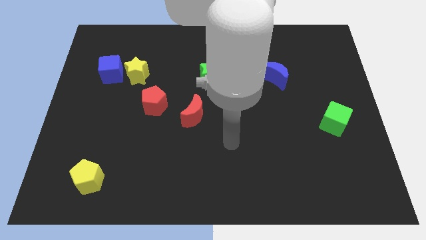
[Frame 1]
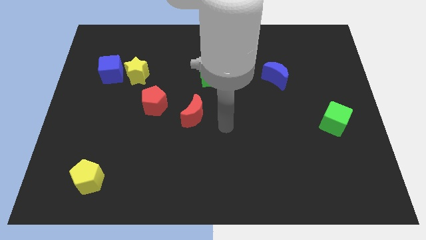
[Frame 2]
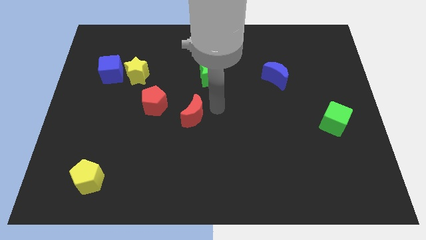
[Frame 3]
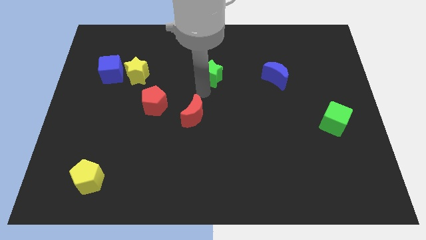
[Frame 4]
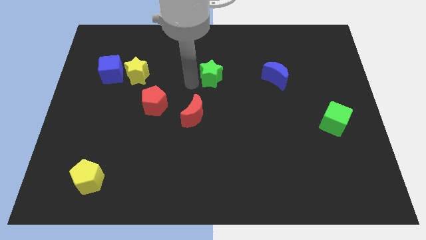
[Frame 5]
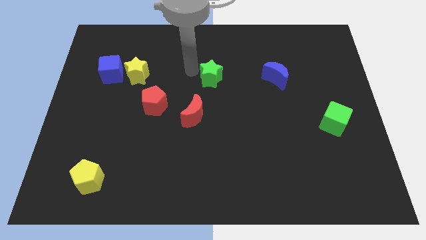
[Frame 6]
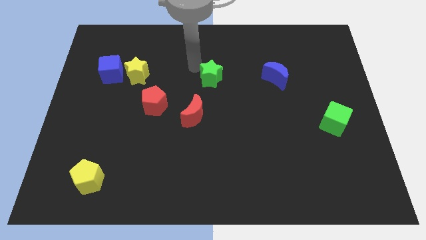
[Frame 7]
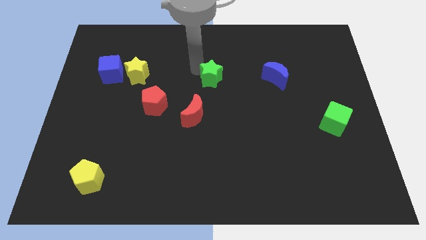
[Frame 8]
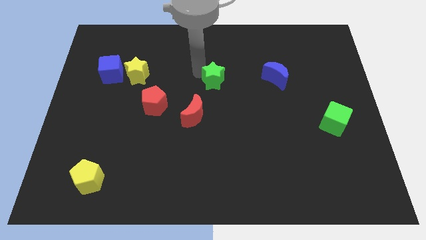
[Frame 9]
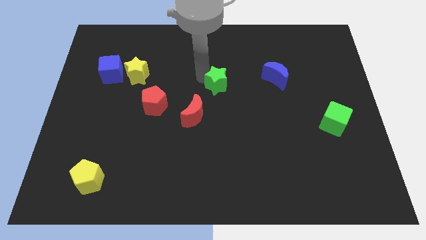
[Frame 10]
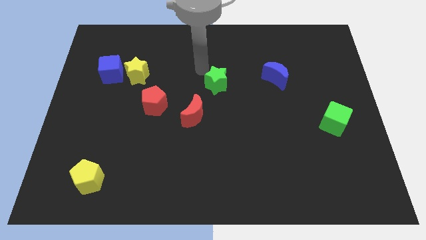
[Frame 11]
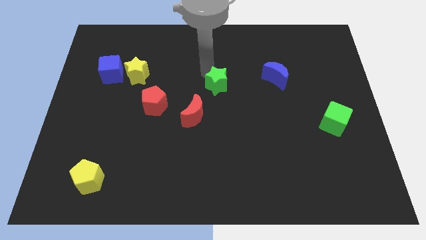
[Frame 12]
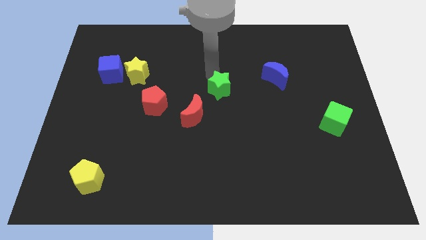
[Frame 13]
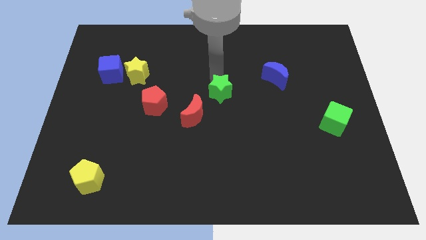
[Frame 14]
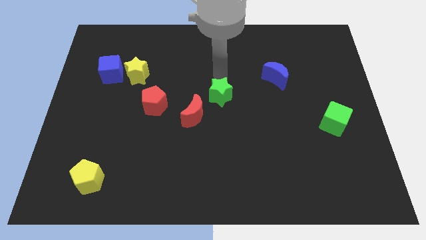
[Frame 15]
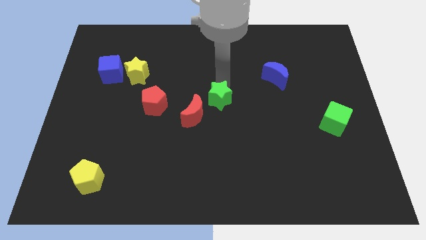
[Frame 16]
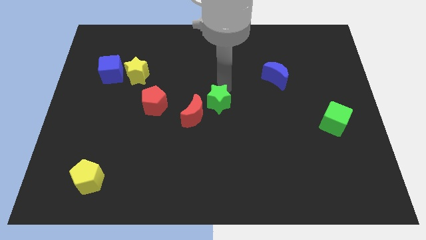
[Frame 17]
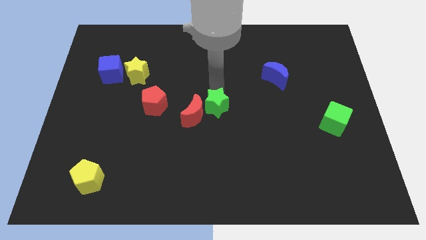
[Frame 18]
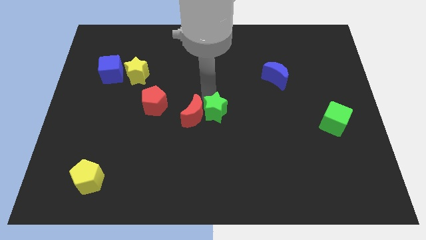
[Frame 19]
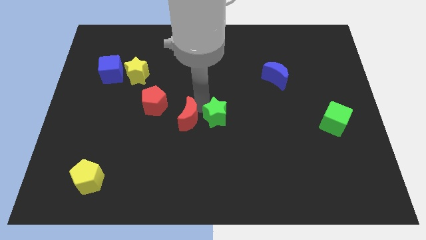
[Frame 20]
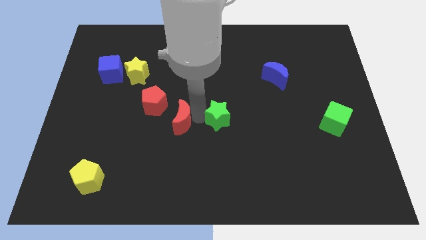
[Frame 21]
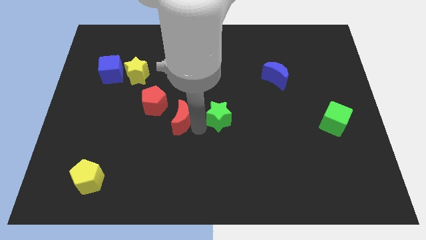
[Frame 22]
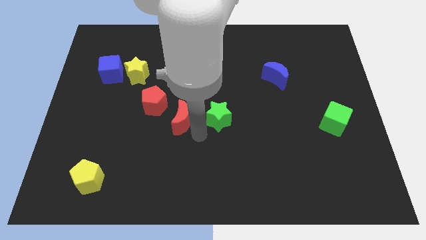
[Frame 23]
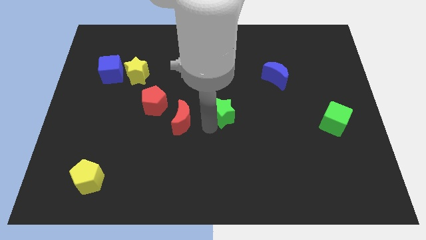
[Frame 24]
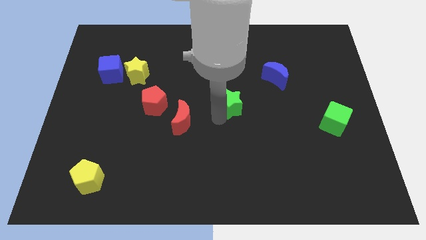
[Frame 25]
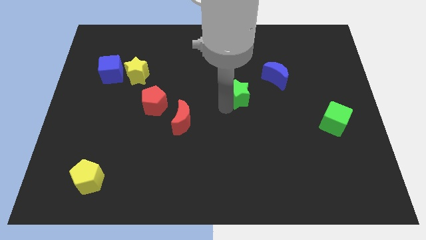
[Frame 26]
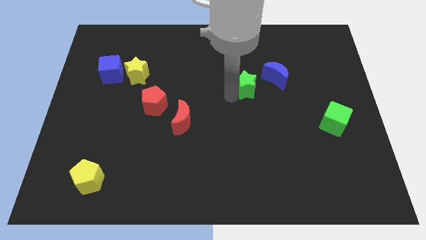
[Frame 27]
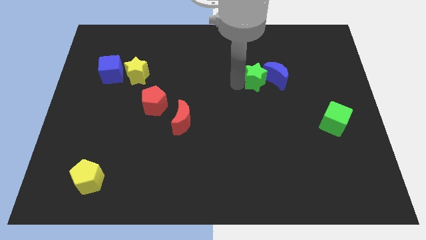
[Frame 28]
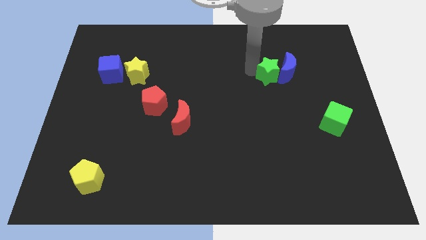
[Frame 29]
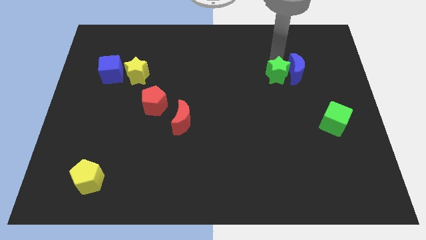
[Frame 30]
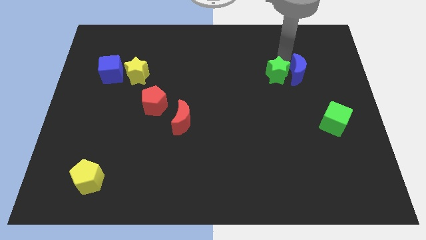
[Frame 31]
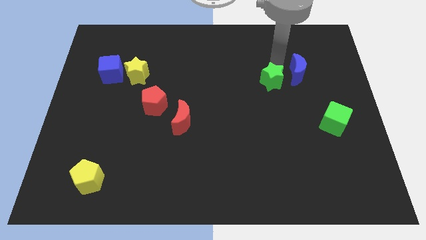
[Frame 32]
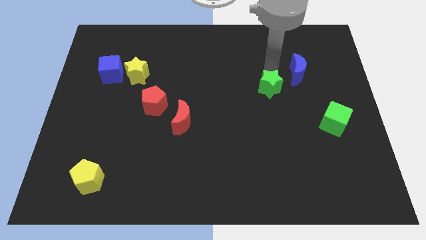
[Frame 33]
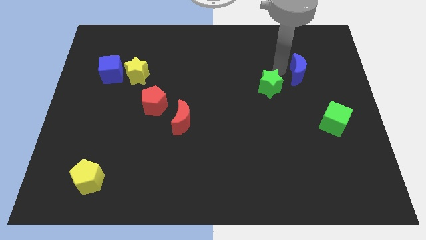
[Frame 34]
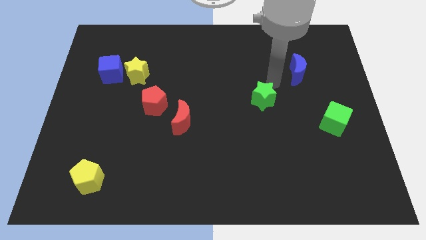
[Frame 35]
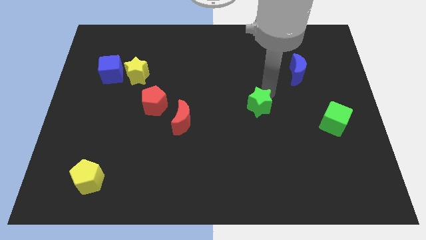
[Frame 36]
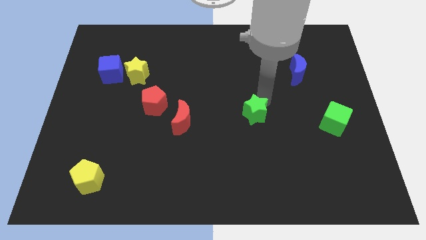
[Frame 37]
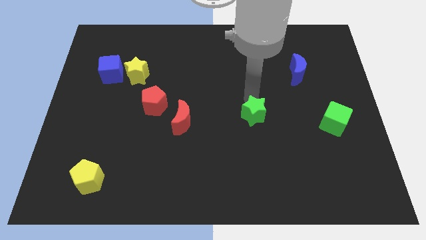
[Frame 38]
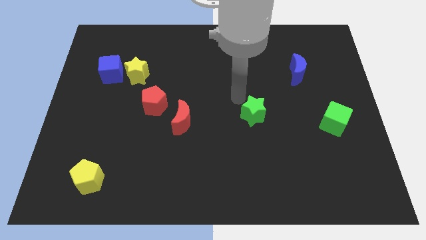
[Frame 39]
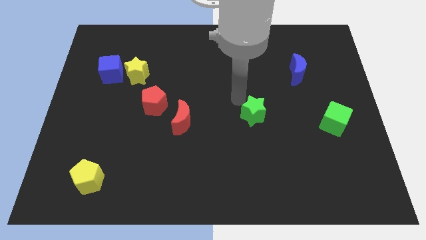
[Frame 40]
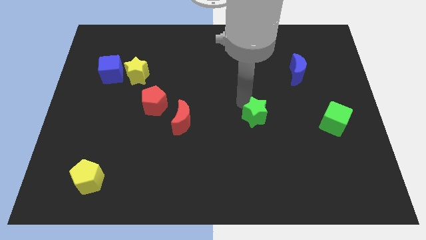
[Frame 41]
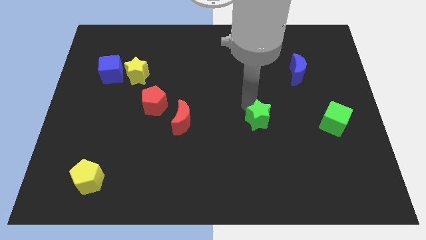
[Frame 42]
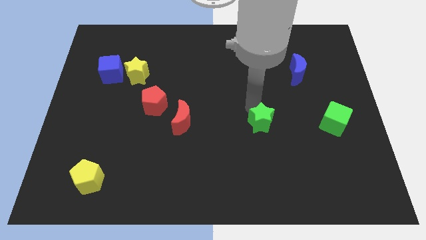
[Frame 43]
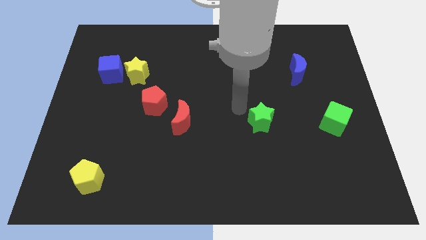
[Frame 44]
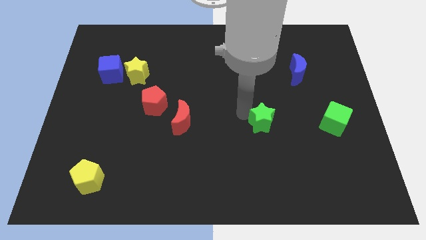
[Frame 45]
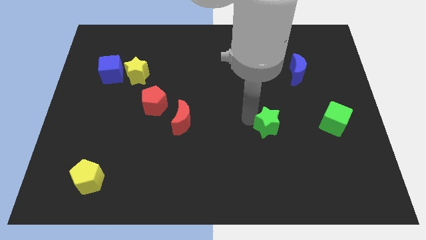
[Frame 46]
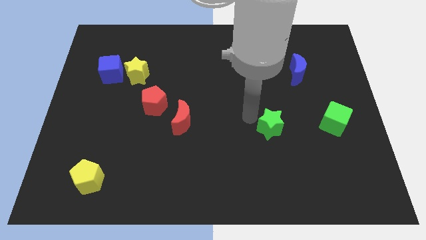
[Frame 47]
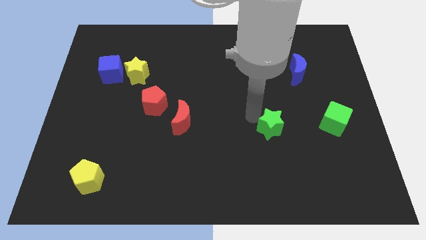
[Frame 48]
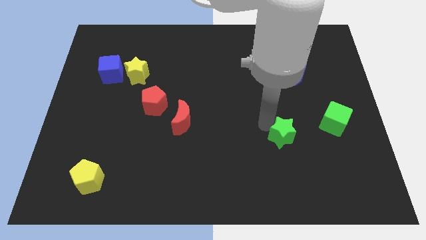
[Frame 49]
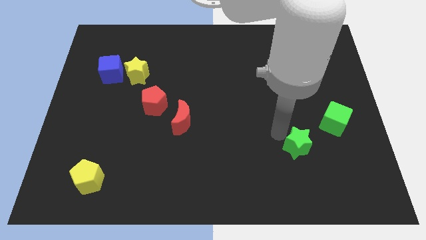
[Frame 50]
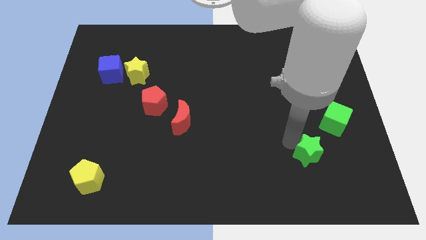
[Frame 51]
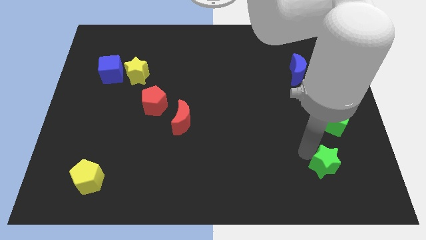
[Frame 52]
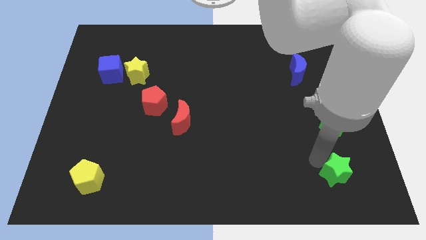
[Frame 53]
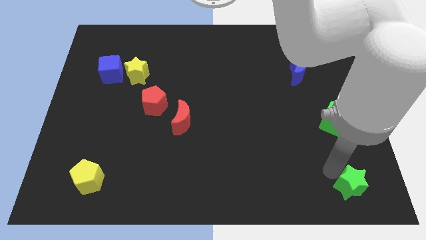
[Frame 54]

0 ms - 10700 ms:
put the green star to the bottom right corner

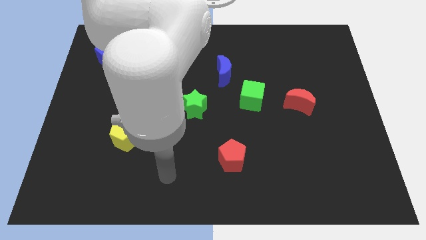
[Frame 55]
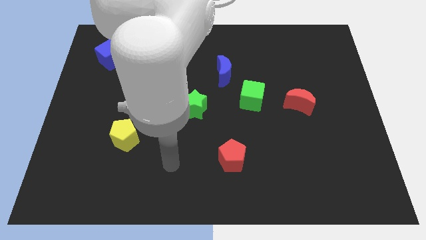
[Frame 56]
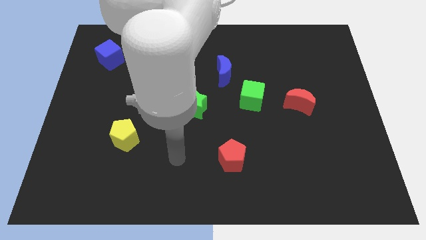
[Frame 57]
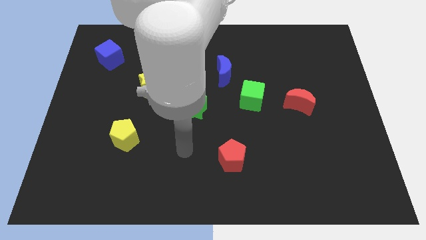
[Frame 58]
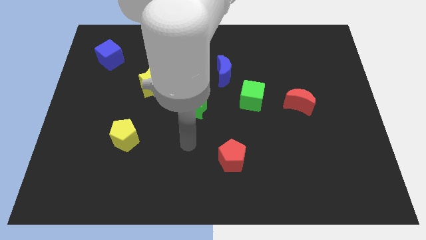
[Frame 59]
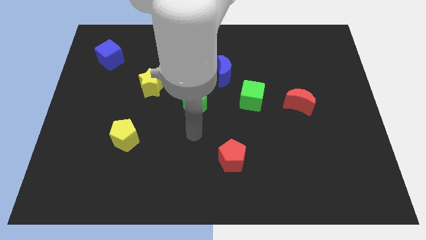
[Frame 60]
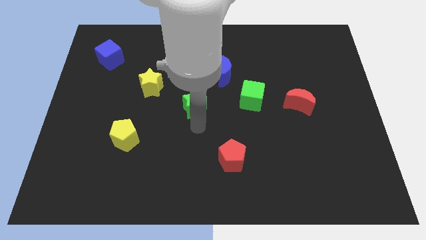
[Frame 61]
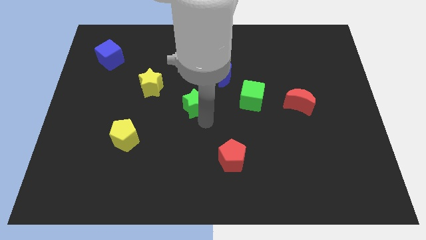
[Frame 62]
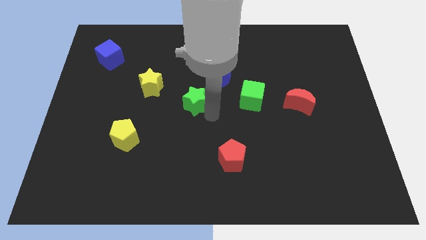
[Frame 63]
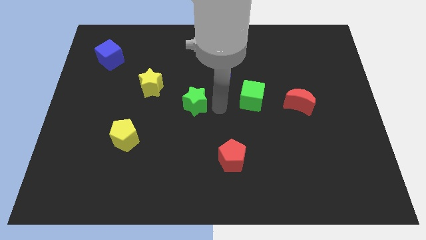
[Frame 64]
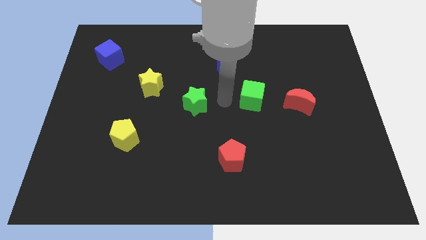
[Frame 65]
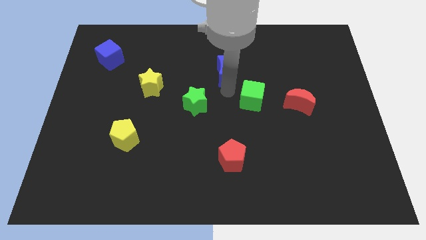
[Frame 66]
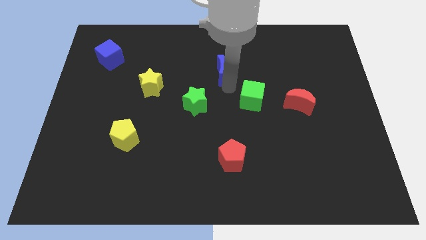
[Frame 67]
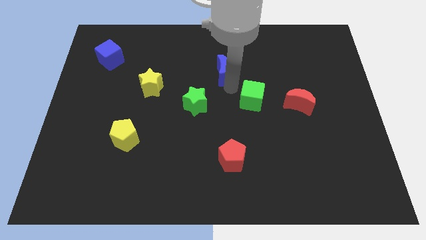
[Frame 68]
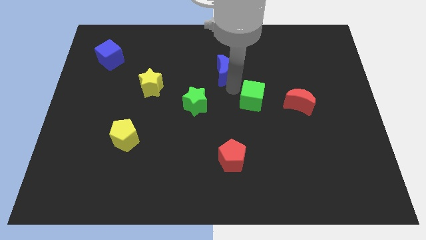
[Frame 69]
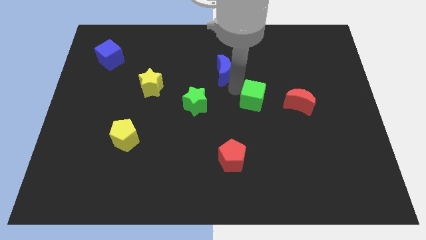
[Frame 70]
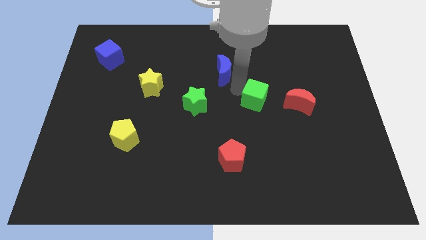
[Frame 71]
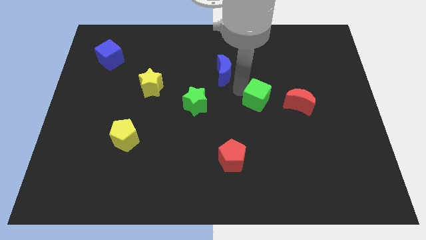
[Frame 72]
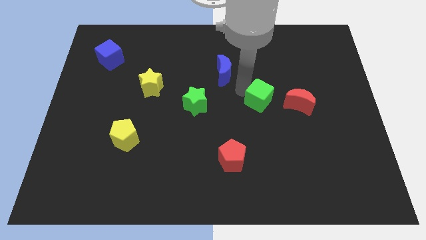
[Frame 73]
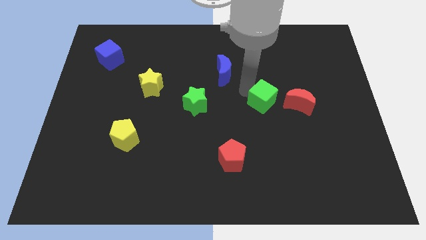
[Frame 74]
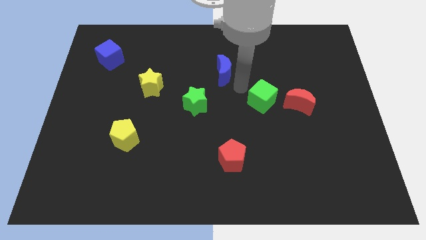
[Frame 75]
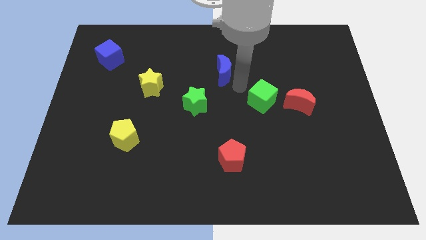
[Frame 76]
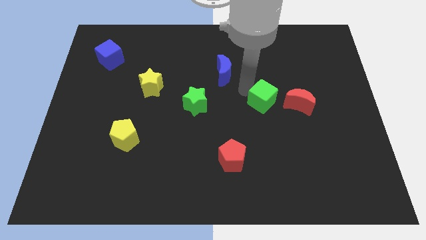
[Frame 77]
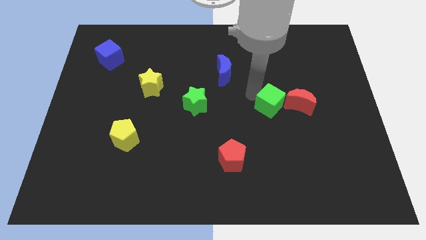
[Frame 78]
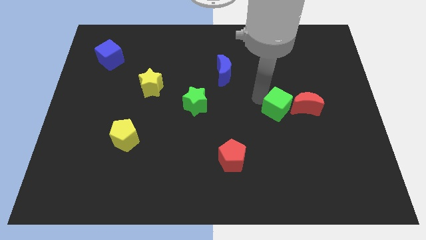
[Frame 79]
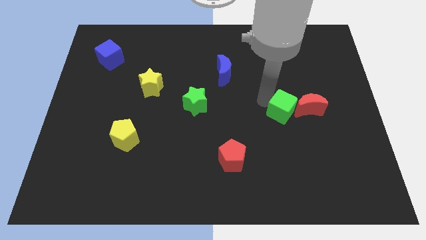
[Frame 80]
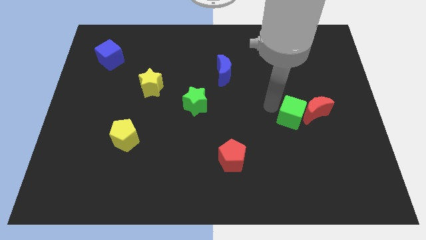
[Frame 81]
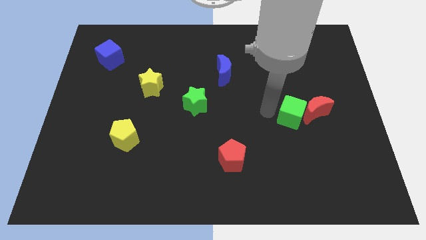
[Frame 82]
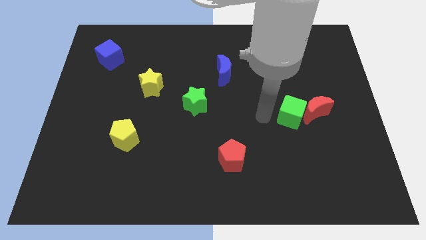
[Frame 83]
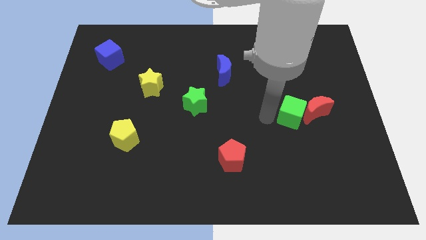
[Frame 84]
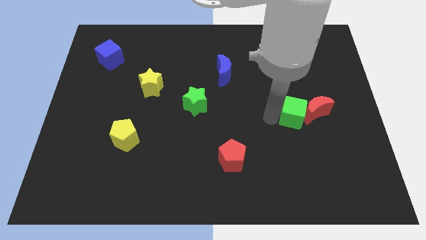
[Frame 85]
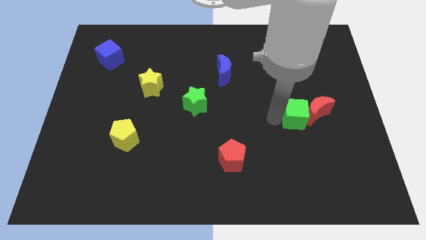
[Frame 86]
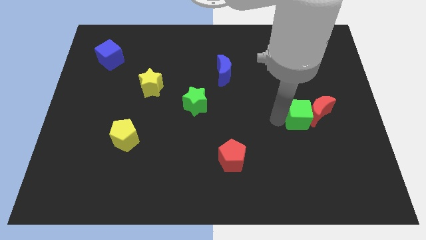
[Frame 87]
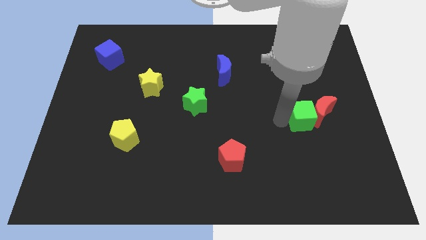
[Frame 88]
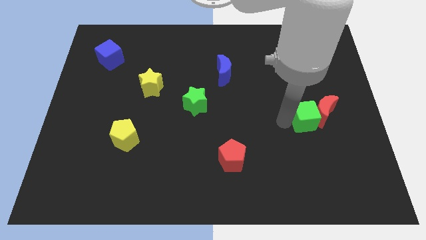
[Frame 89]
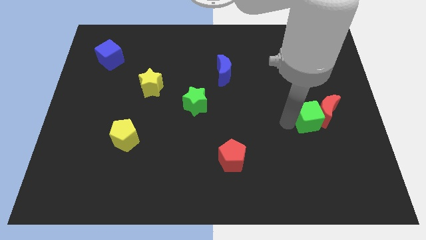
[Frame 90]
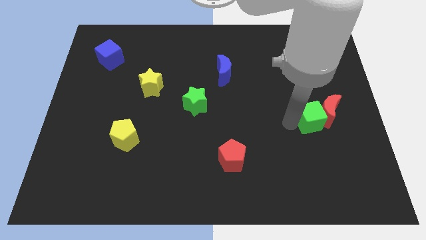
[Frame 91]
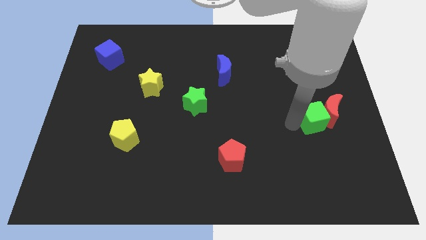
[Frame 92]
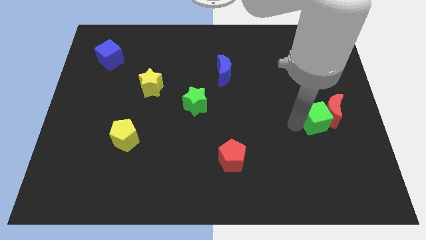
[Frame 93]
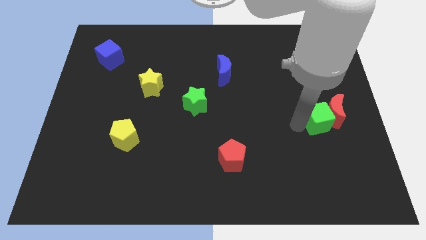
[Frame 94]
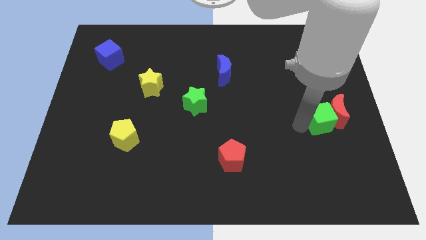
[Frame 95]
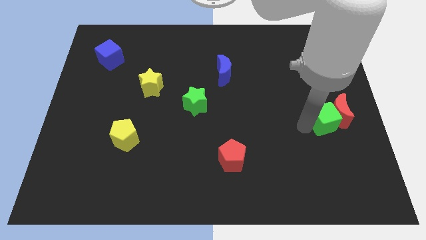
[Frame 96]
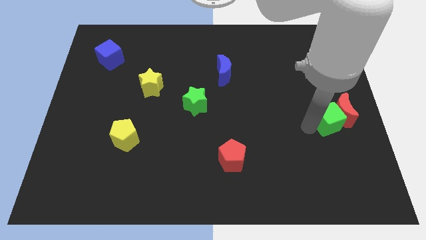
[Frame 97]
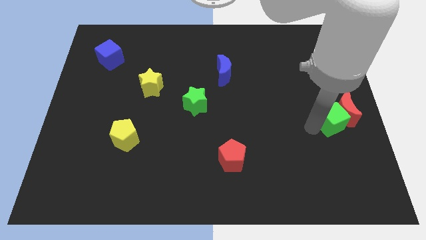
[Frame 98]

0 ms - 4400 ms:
put the green cube to the center right
